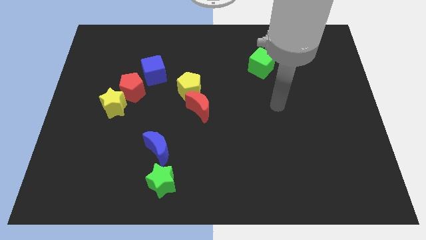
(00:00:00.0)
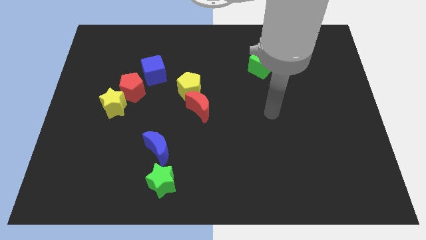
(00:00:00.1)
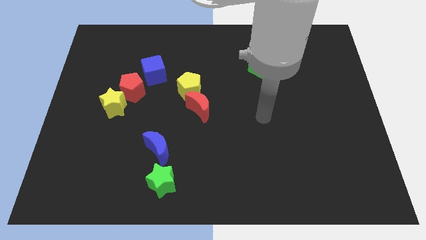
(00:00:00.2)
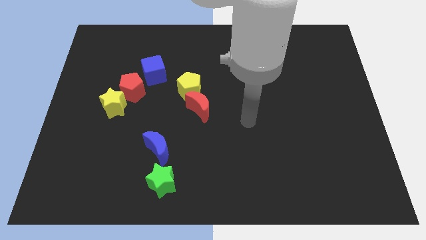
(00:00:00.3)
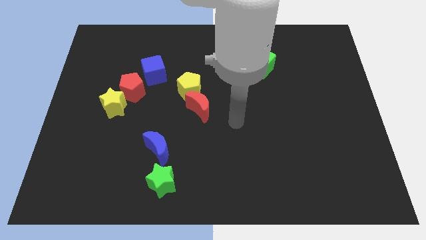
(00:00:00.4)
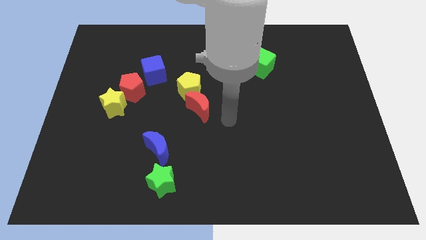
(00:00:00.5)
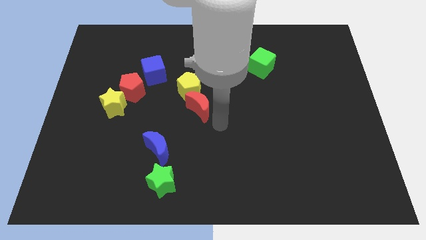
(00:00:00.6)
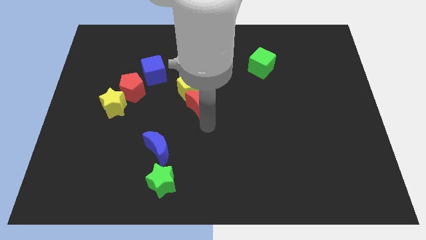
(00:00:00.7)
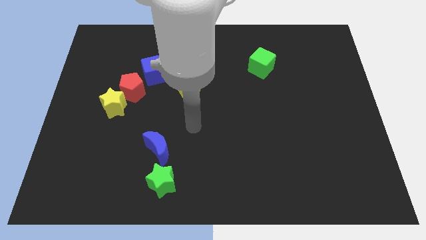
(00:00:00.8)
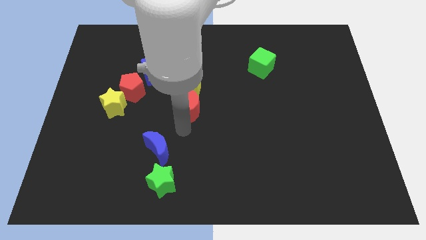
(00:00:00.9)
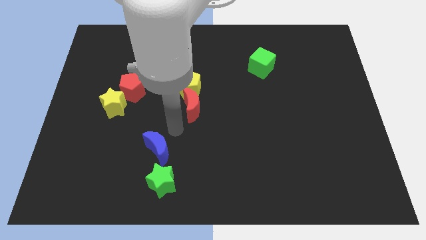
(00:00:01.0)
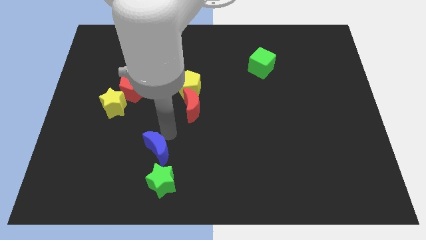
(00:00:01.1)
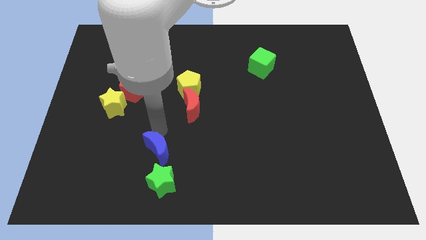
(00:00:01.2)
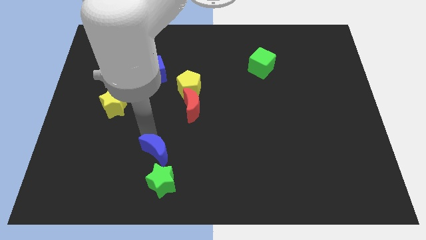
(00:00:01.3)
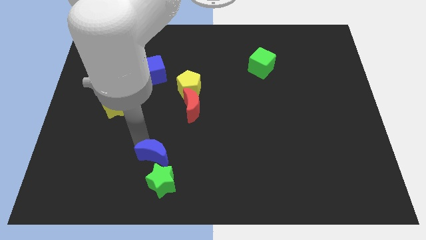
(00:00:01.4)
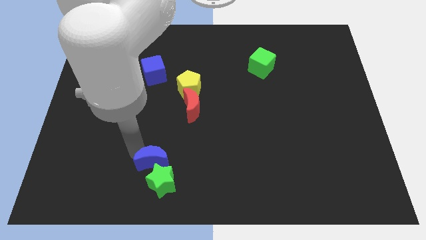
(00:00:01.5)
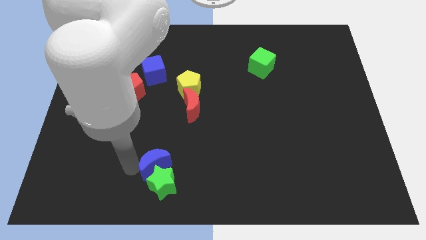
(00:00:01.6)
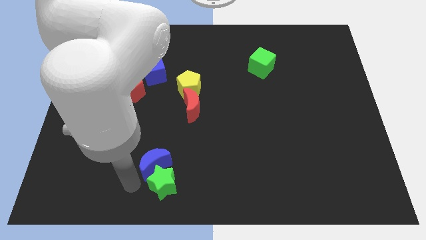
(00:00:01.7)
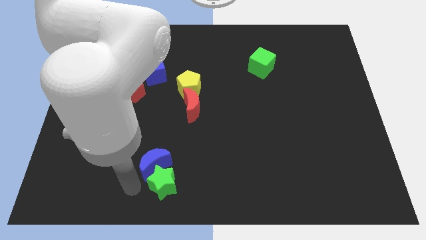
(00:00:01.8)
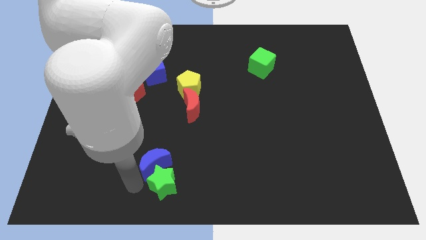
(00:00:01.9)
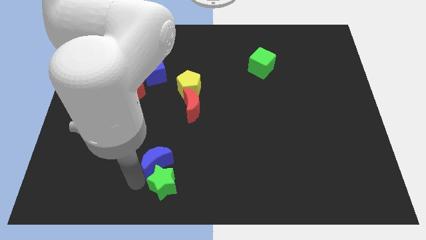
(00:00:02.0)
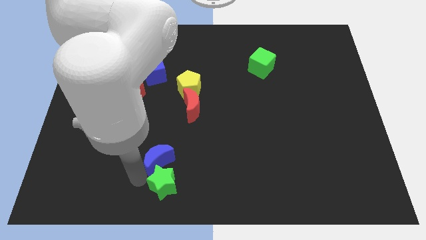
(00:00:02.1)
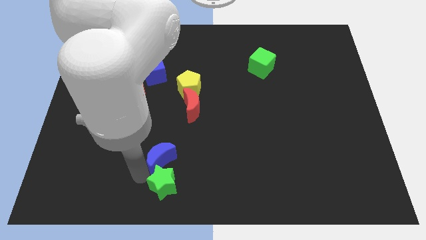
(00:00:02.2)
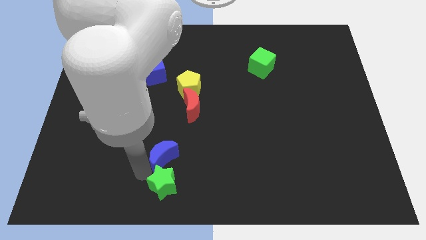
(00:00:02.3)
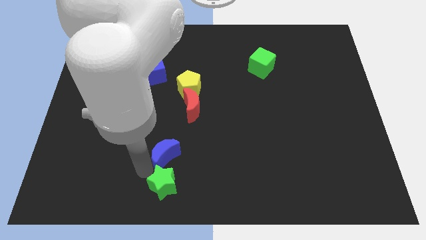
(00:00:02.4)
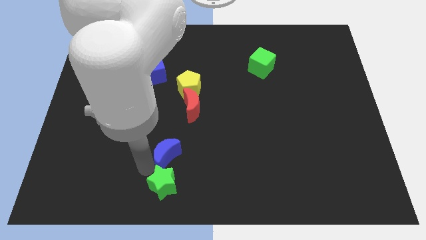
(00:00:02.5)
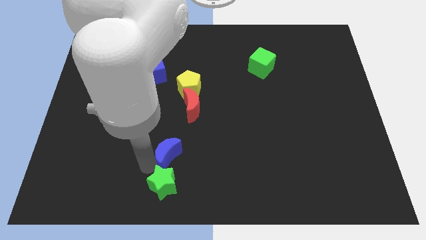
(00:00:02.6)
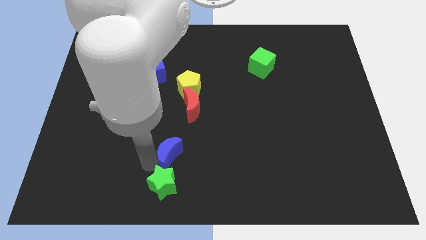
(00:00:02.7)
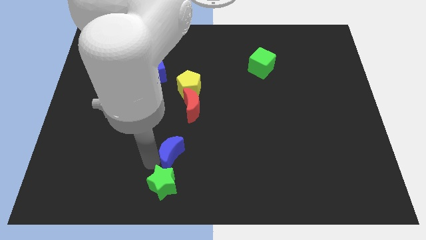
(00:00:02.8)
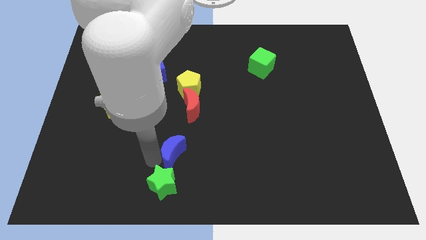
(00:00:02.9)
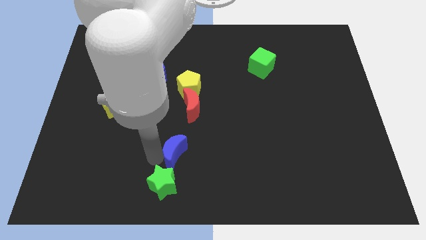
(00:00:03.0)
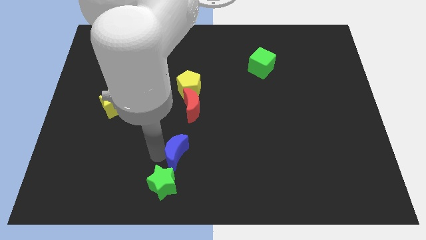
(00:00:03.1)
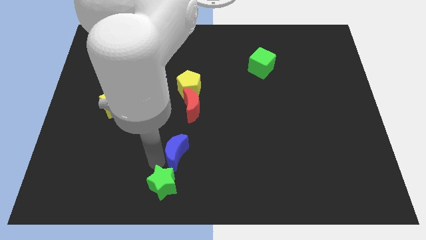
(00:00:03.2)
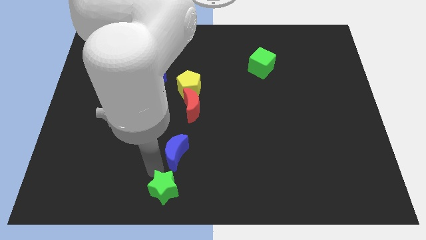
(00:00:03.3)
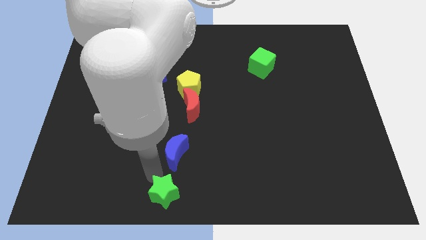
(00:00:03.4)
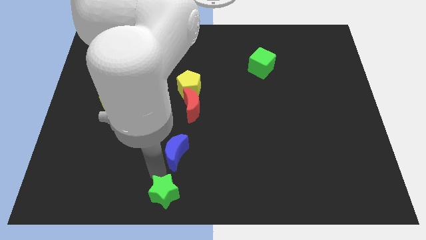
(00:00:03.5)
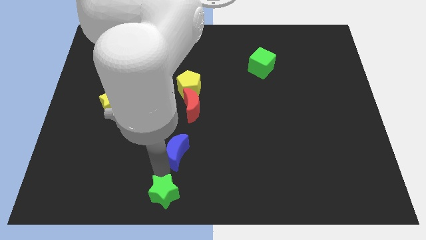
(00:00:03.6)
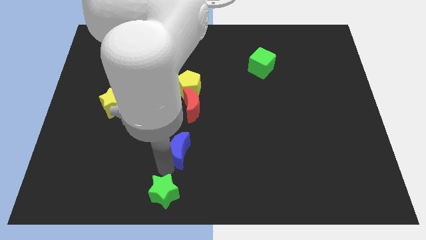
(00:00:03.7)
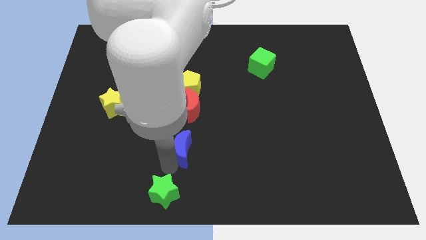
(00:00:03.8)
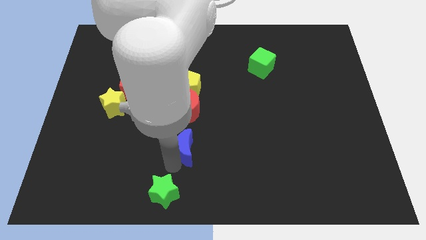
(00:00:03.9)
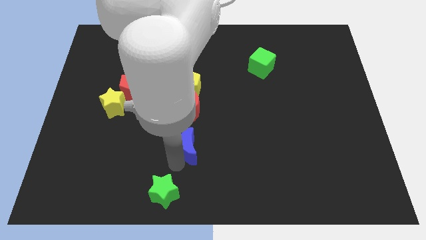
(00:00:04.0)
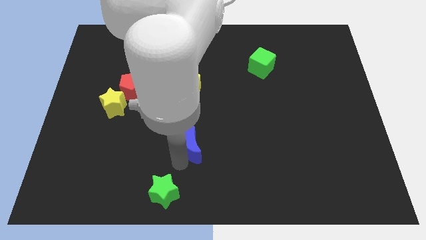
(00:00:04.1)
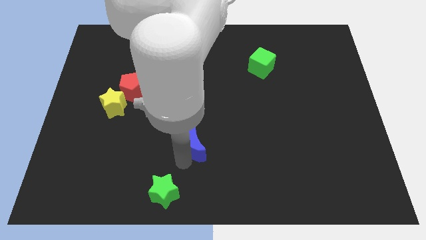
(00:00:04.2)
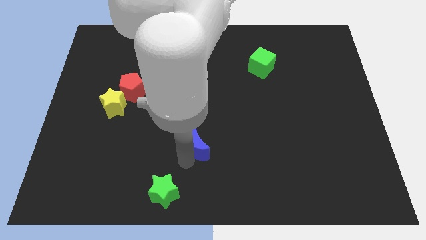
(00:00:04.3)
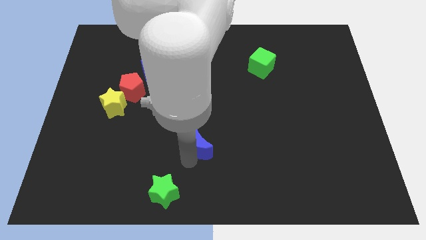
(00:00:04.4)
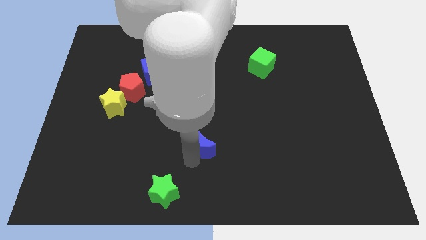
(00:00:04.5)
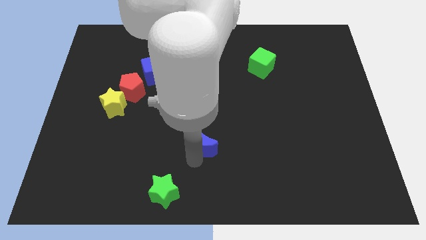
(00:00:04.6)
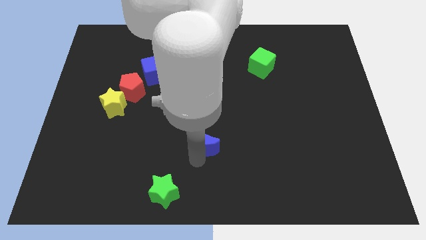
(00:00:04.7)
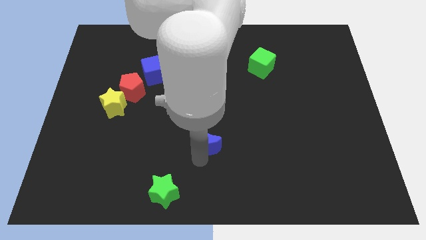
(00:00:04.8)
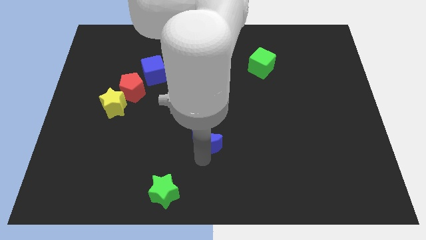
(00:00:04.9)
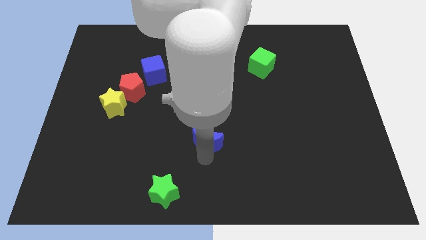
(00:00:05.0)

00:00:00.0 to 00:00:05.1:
slide the blue moon up and then to the right a little

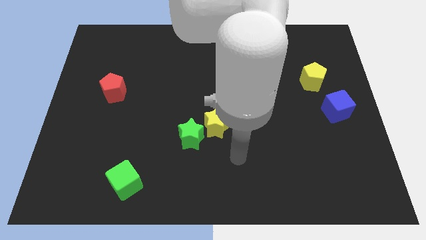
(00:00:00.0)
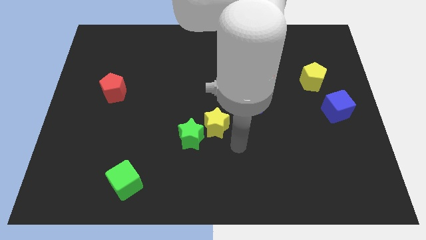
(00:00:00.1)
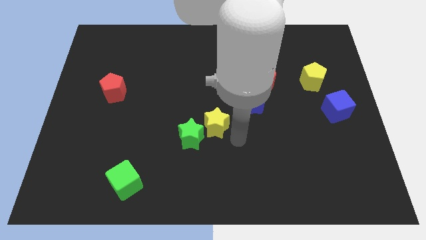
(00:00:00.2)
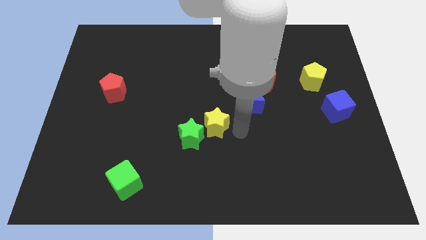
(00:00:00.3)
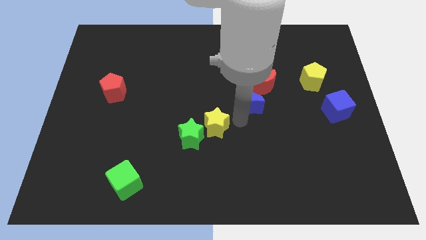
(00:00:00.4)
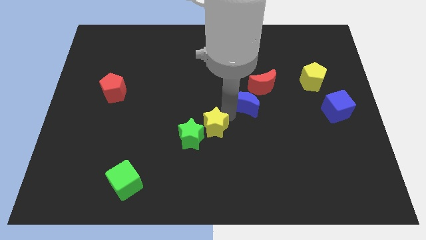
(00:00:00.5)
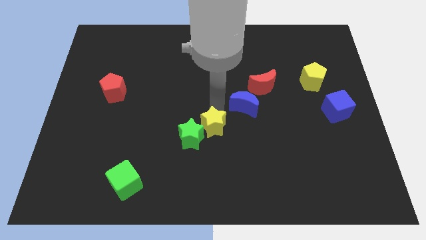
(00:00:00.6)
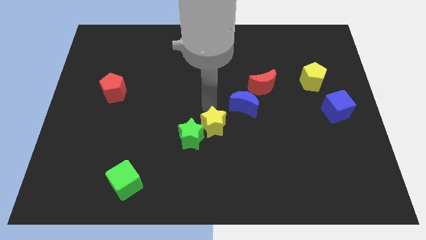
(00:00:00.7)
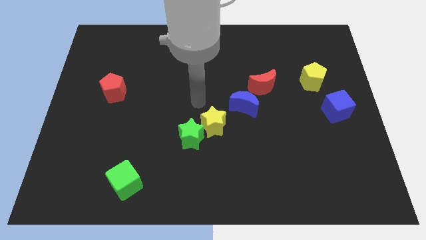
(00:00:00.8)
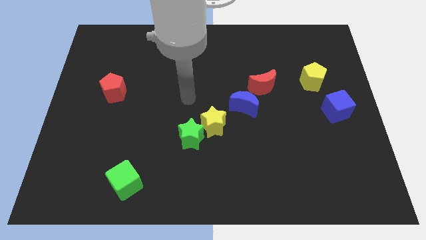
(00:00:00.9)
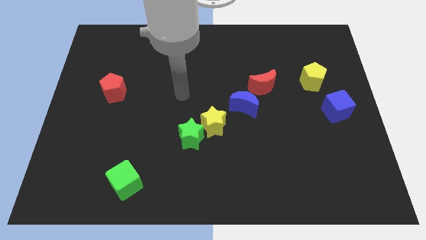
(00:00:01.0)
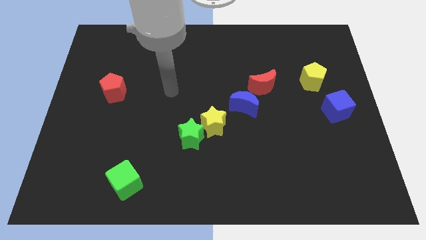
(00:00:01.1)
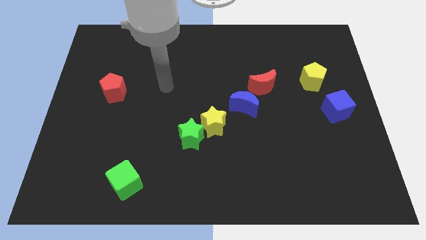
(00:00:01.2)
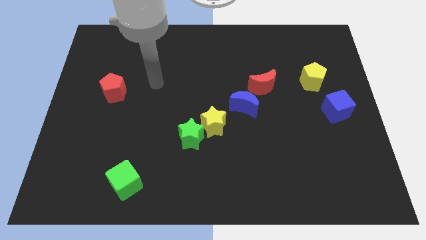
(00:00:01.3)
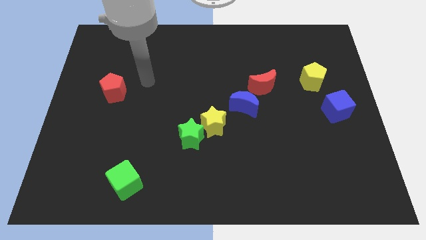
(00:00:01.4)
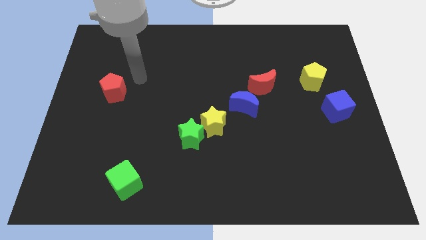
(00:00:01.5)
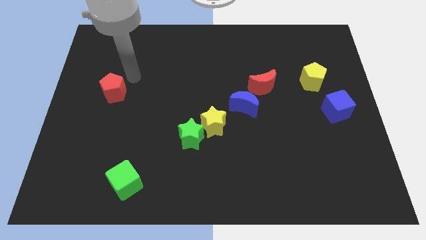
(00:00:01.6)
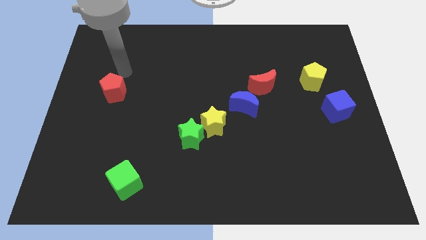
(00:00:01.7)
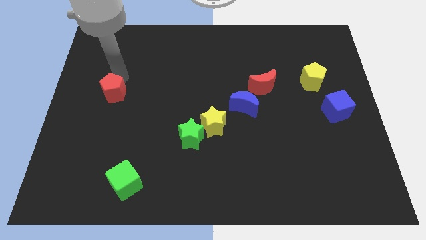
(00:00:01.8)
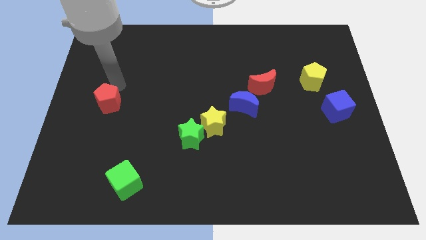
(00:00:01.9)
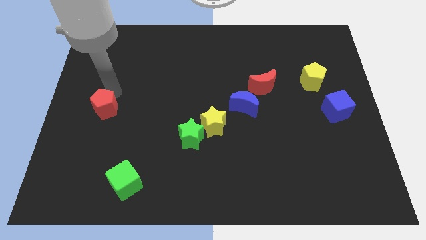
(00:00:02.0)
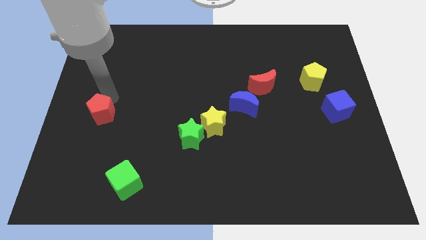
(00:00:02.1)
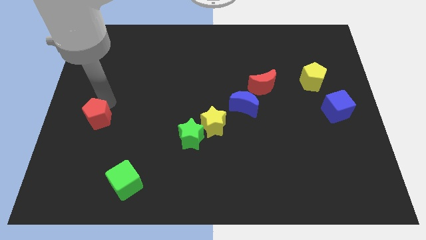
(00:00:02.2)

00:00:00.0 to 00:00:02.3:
slightly move the red pentagon down

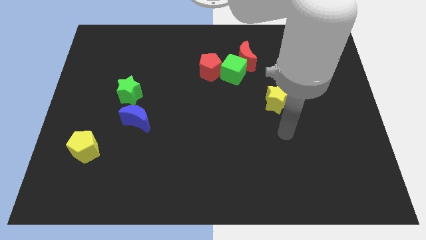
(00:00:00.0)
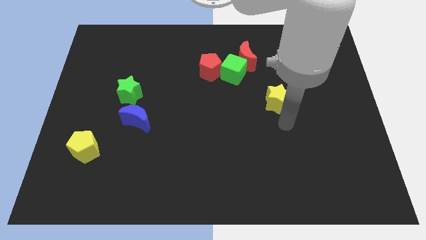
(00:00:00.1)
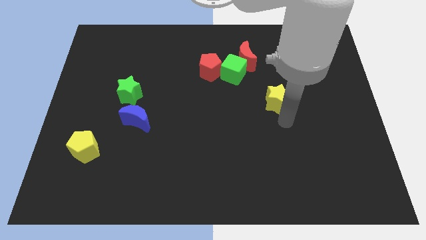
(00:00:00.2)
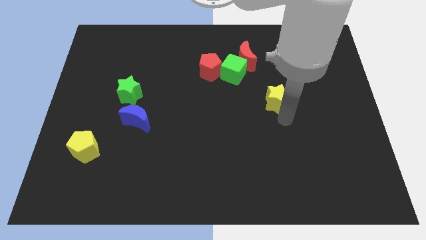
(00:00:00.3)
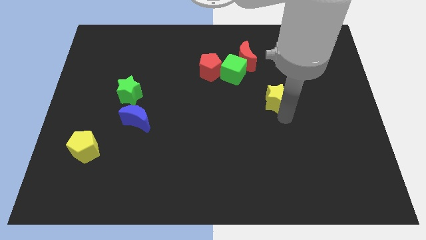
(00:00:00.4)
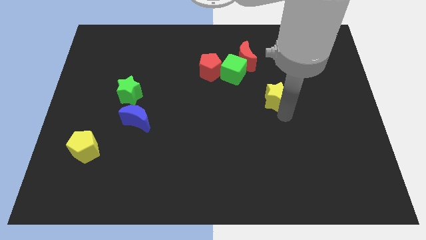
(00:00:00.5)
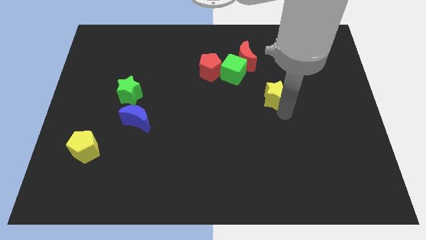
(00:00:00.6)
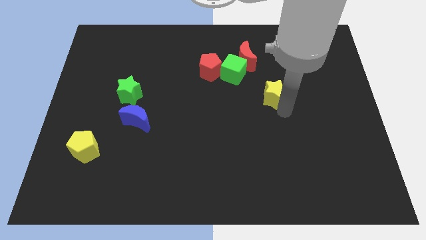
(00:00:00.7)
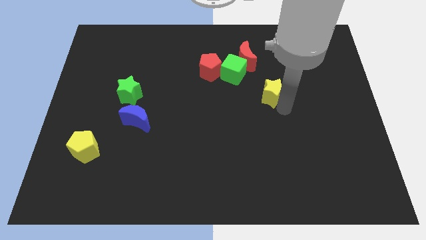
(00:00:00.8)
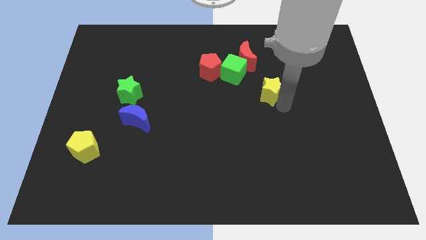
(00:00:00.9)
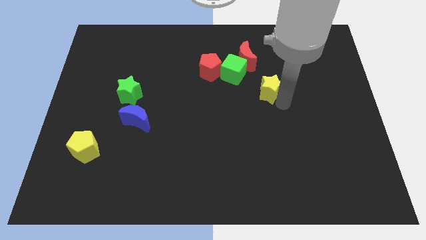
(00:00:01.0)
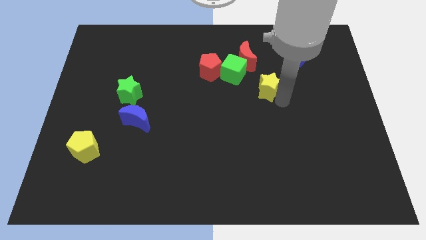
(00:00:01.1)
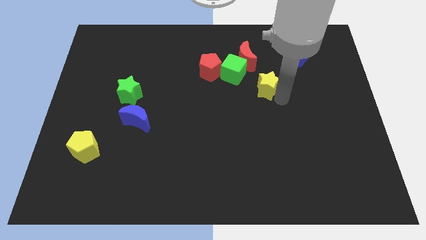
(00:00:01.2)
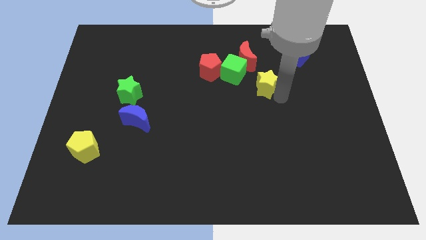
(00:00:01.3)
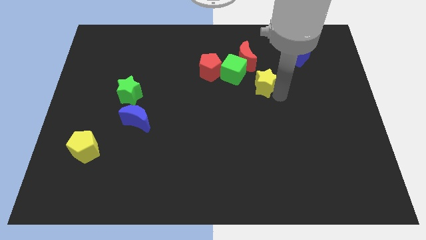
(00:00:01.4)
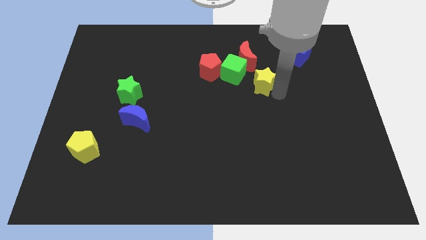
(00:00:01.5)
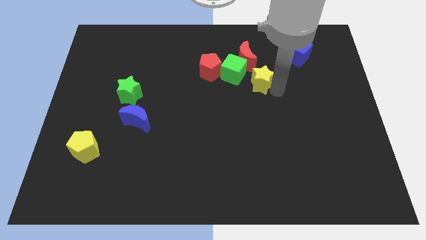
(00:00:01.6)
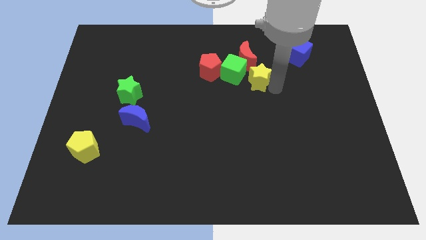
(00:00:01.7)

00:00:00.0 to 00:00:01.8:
move the yellow star upwards and to the left a little
